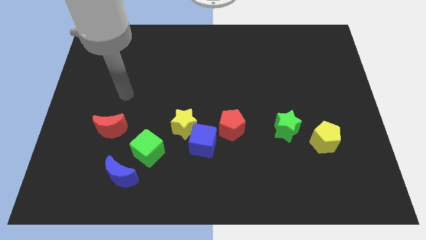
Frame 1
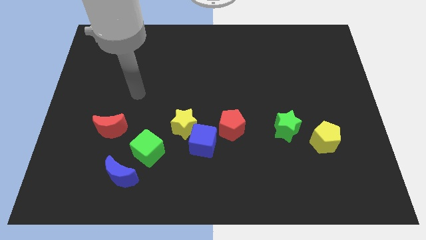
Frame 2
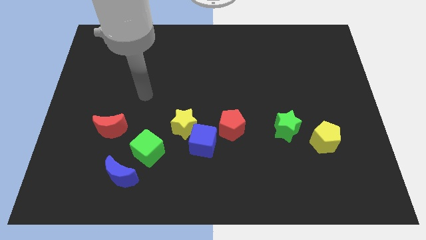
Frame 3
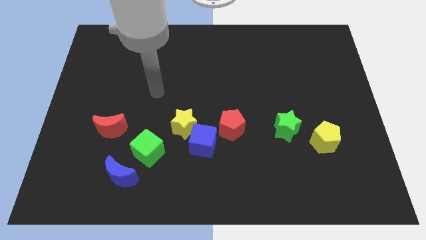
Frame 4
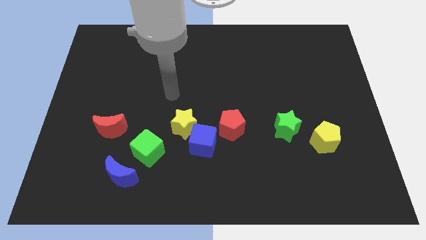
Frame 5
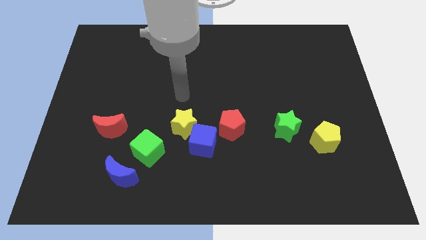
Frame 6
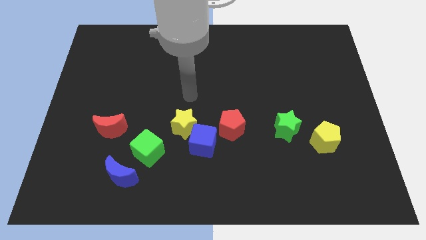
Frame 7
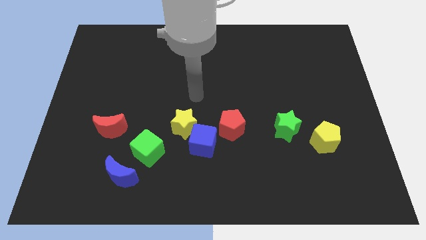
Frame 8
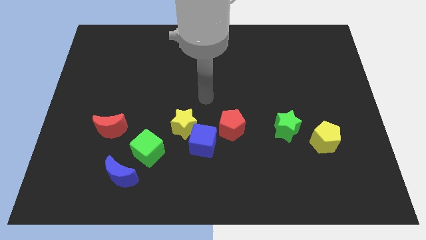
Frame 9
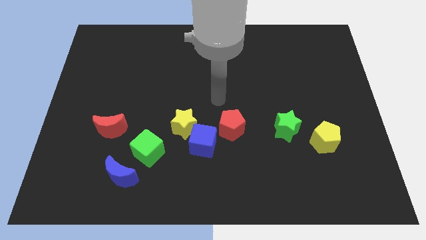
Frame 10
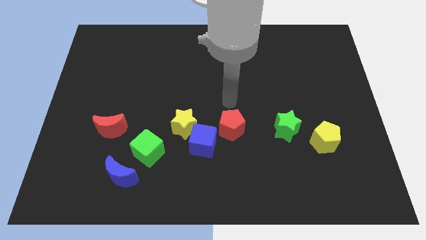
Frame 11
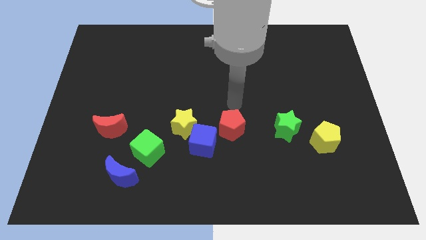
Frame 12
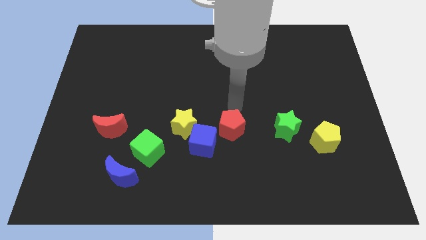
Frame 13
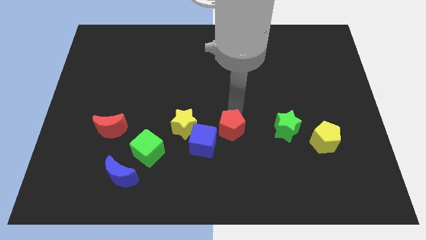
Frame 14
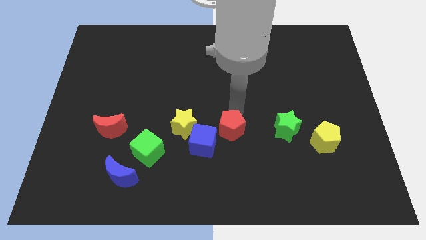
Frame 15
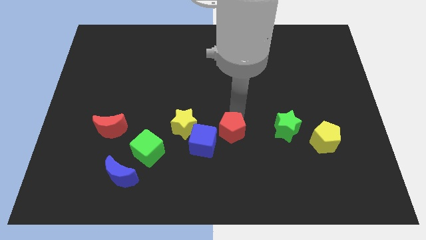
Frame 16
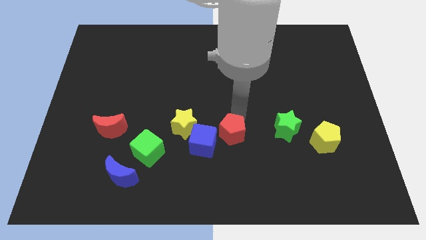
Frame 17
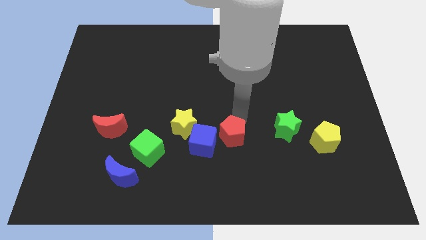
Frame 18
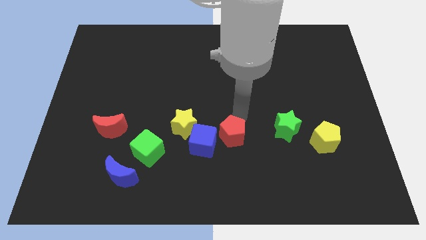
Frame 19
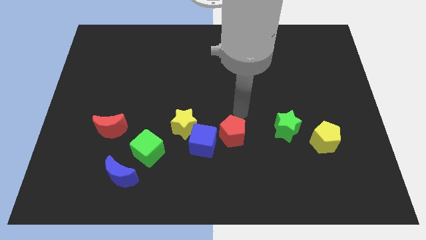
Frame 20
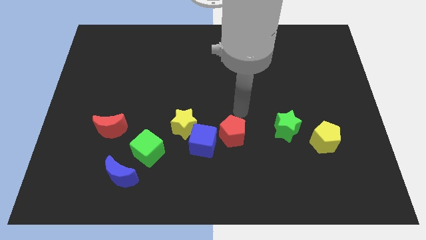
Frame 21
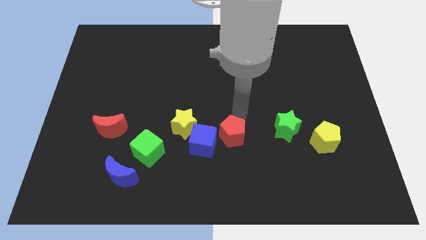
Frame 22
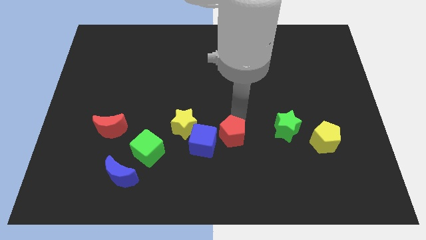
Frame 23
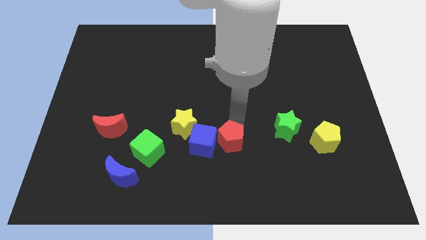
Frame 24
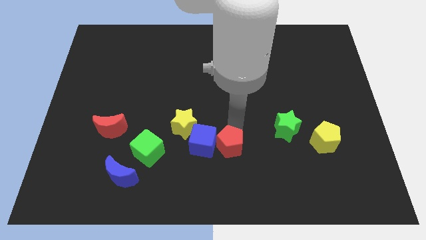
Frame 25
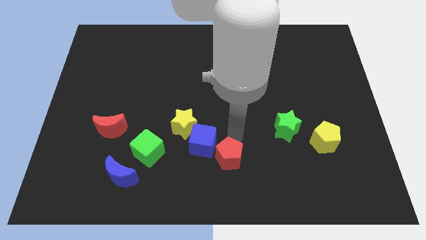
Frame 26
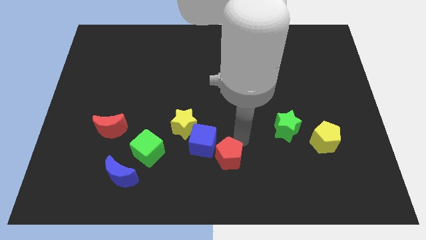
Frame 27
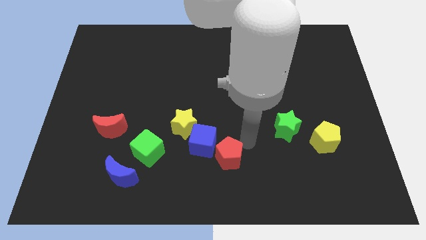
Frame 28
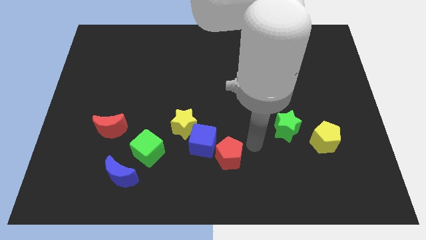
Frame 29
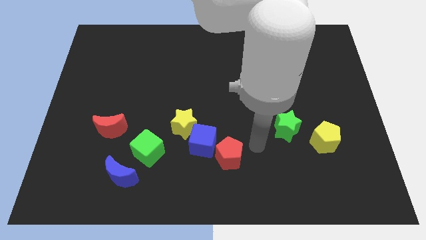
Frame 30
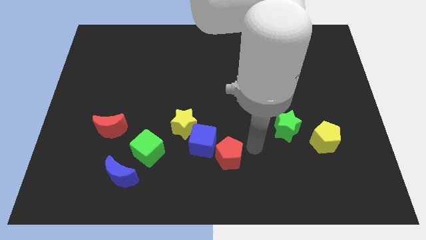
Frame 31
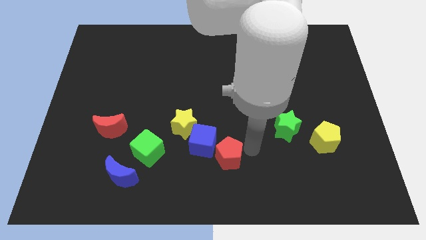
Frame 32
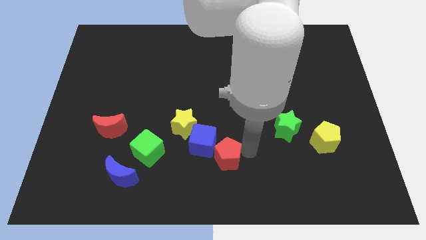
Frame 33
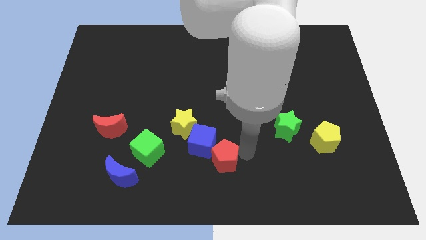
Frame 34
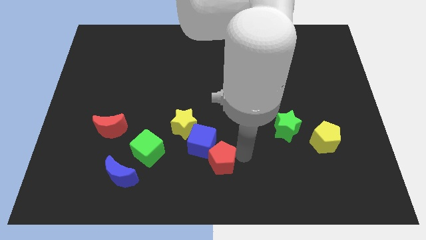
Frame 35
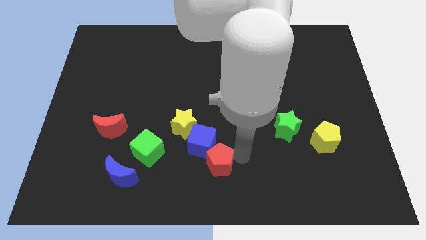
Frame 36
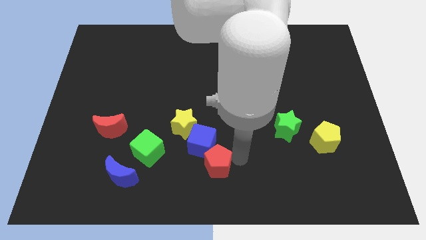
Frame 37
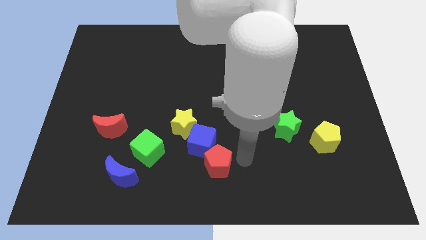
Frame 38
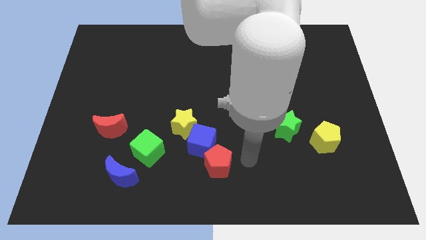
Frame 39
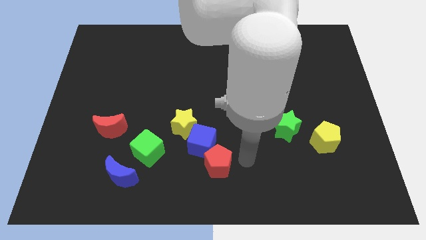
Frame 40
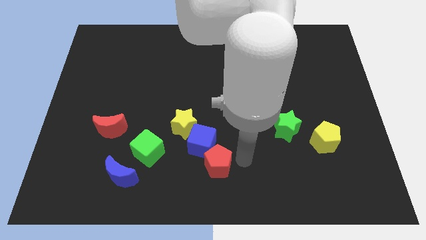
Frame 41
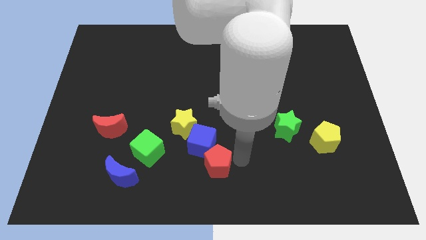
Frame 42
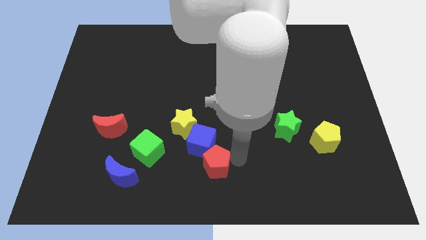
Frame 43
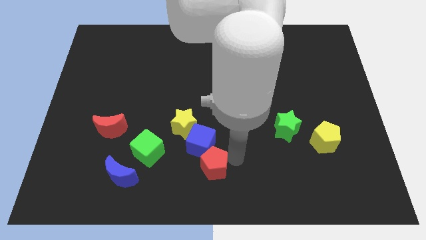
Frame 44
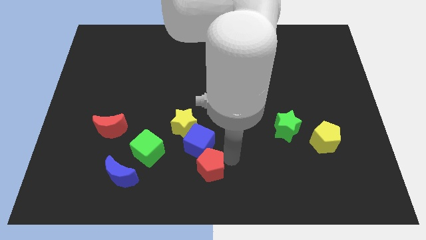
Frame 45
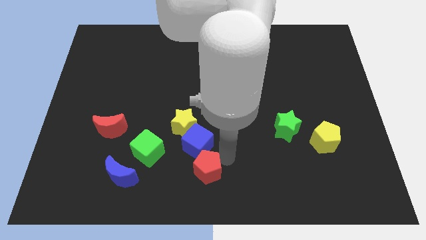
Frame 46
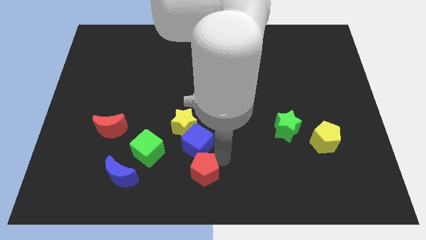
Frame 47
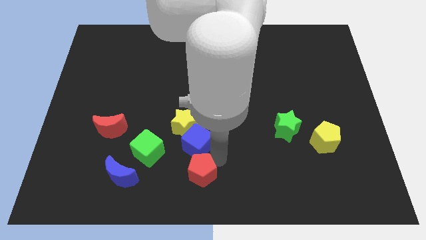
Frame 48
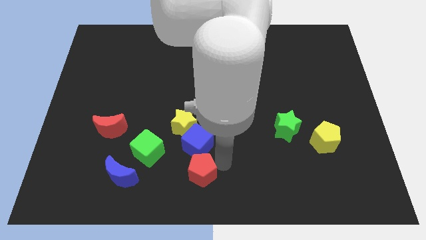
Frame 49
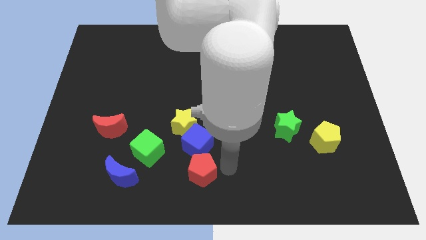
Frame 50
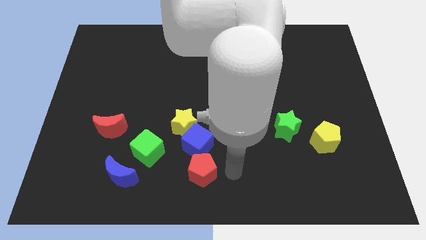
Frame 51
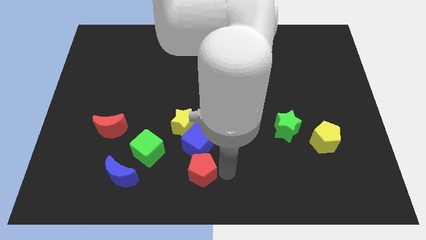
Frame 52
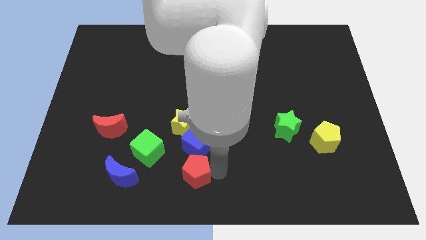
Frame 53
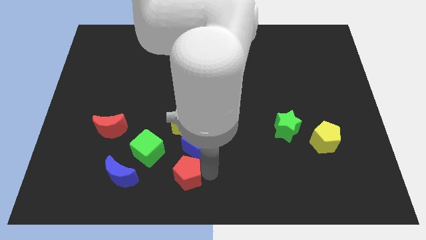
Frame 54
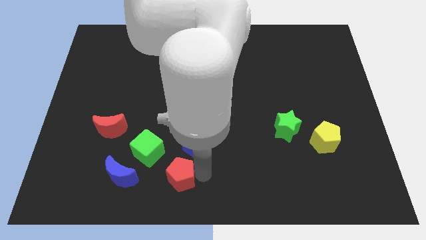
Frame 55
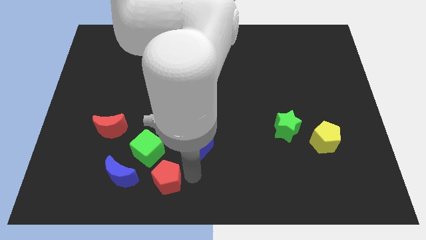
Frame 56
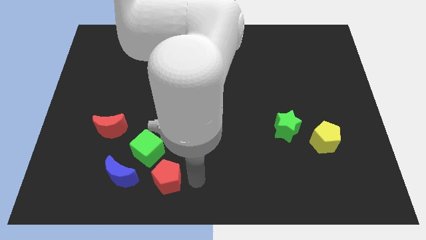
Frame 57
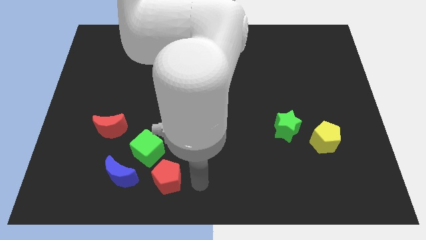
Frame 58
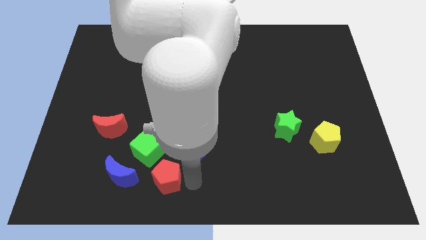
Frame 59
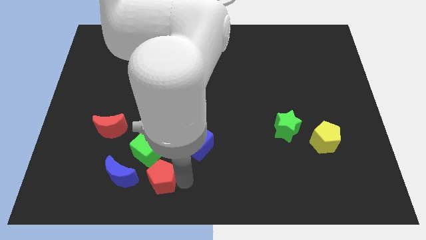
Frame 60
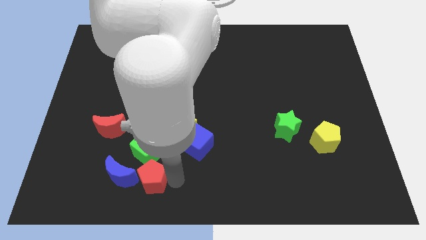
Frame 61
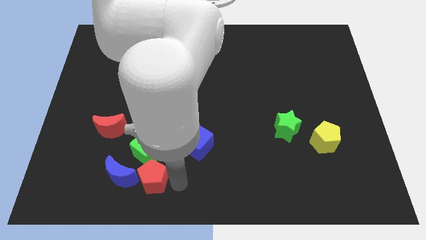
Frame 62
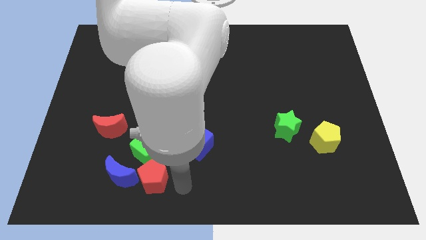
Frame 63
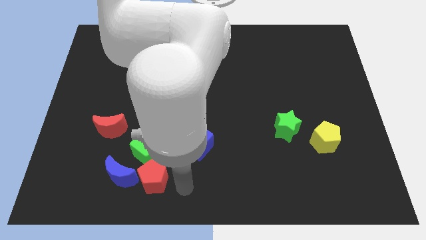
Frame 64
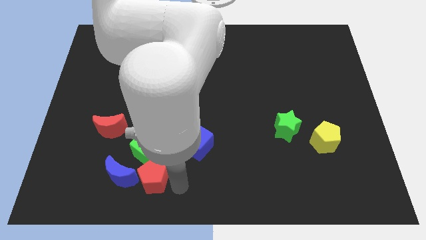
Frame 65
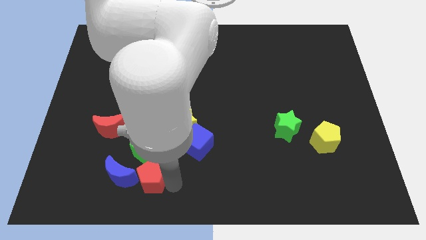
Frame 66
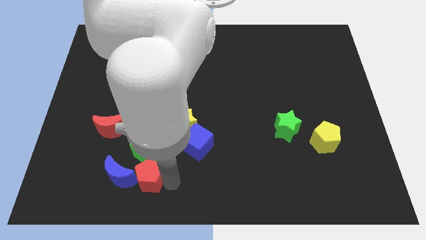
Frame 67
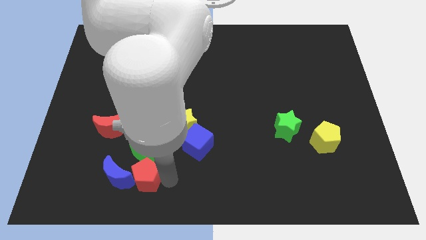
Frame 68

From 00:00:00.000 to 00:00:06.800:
move the red pentagon towards the blue moon
